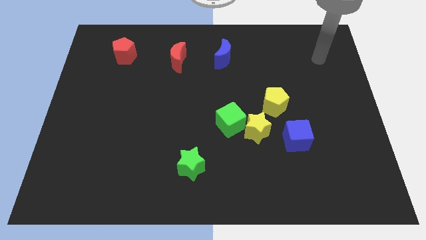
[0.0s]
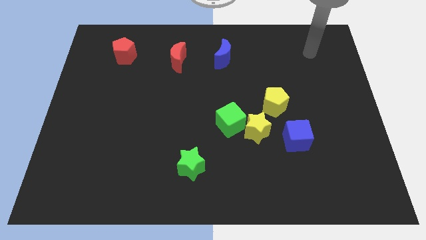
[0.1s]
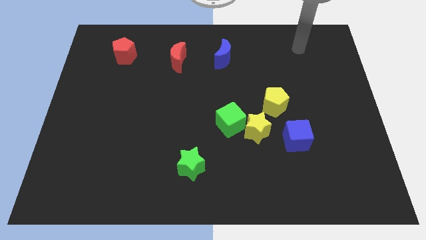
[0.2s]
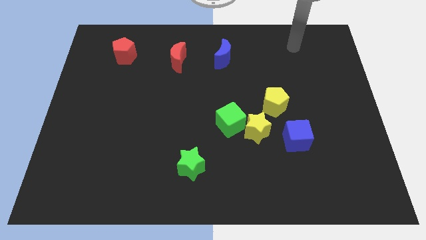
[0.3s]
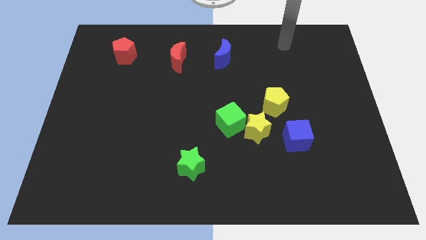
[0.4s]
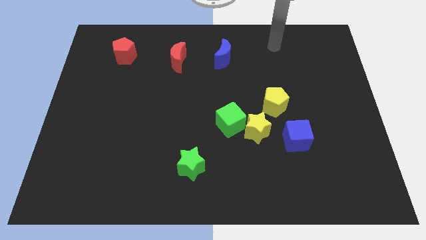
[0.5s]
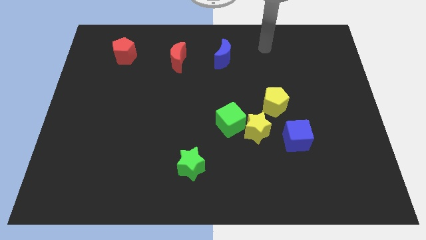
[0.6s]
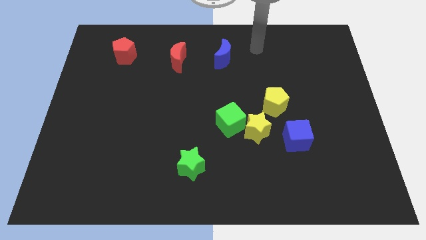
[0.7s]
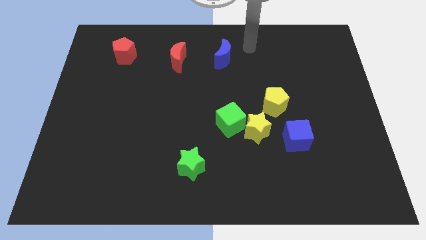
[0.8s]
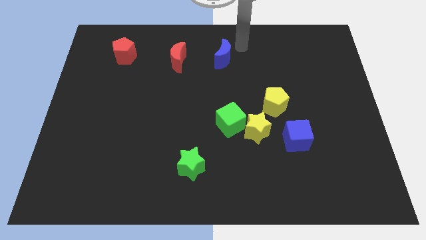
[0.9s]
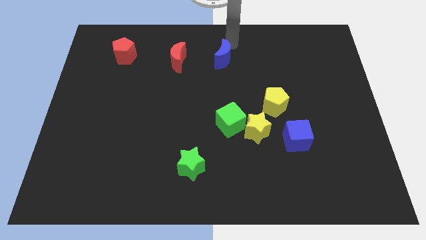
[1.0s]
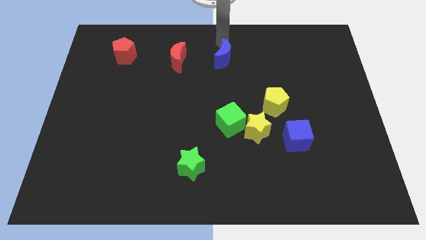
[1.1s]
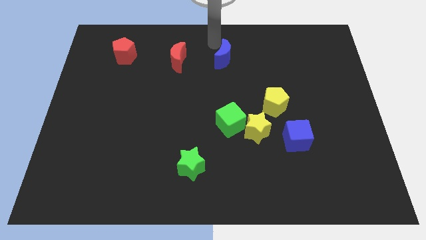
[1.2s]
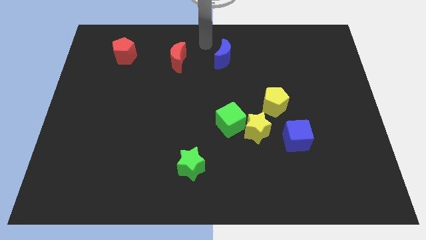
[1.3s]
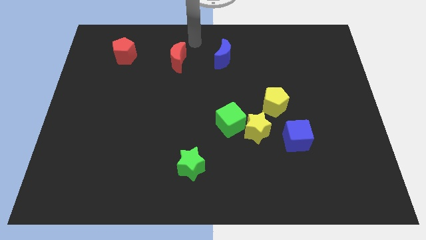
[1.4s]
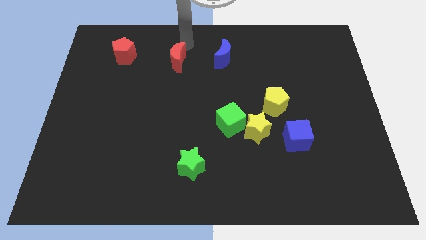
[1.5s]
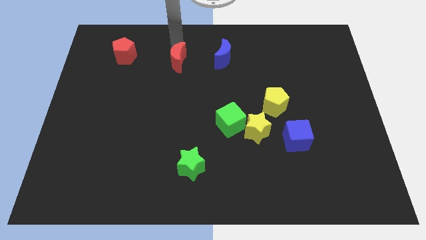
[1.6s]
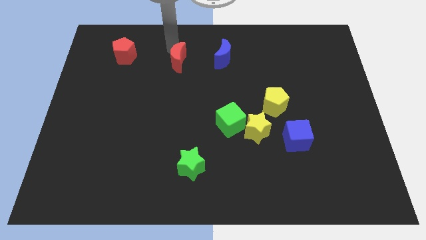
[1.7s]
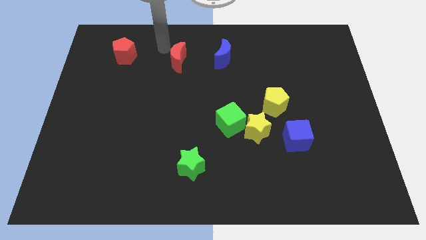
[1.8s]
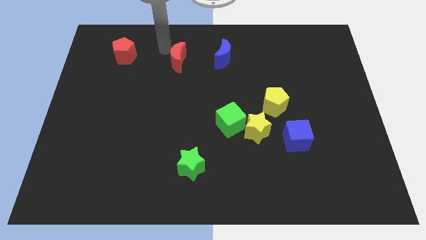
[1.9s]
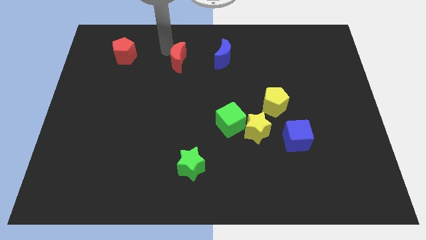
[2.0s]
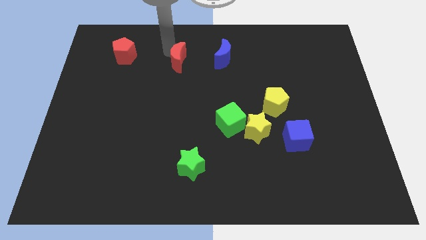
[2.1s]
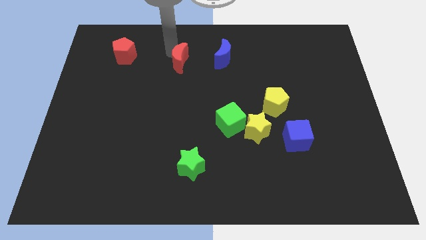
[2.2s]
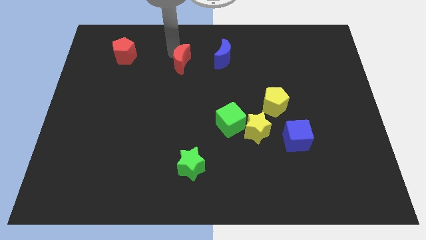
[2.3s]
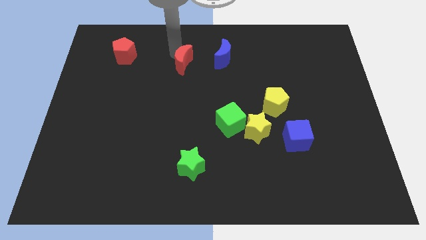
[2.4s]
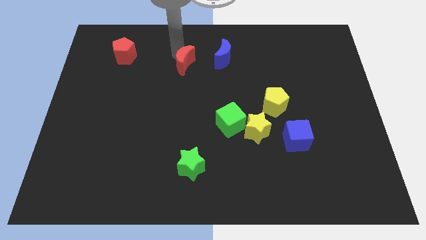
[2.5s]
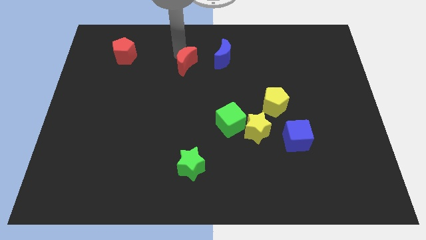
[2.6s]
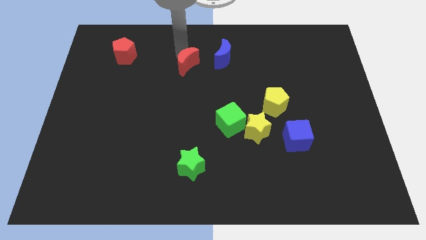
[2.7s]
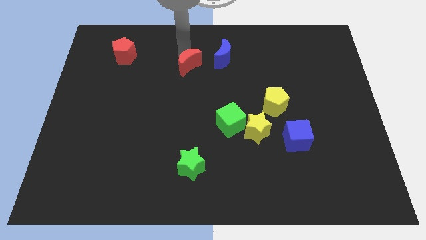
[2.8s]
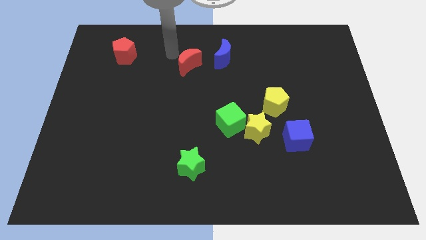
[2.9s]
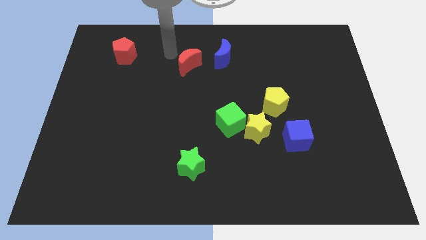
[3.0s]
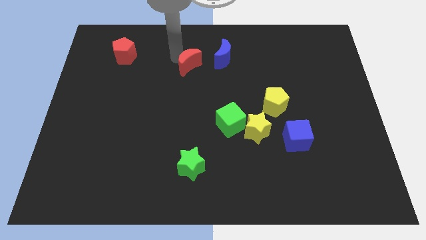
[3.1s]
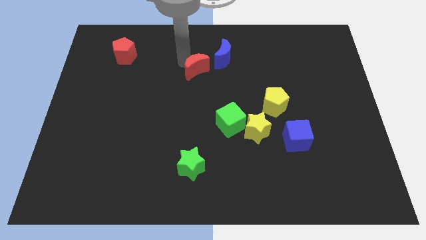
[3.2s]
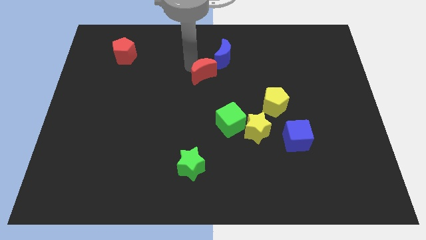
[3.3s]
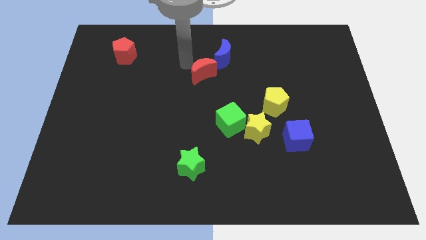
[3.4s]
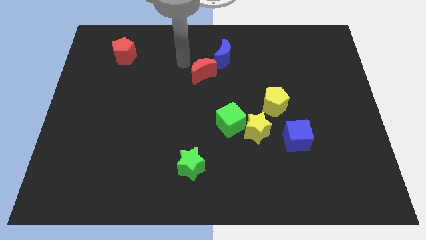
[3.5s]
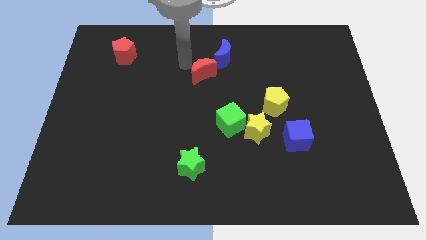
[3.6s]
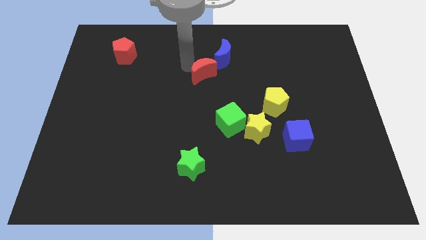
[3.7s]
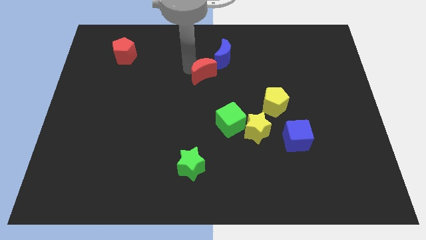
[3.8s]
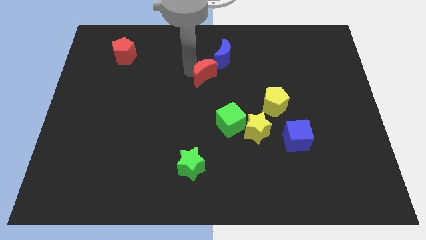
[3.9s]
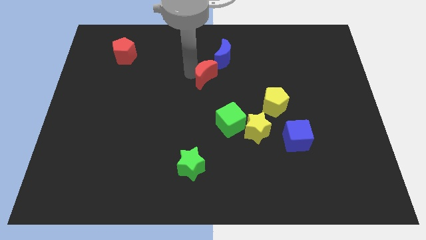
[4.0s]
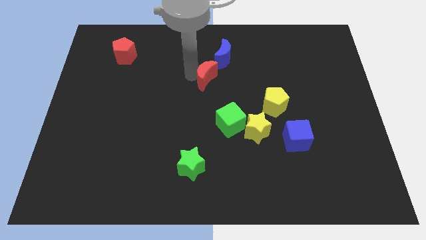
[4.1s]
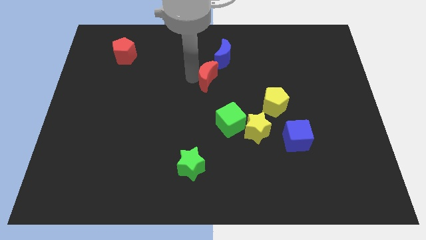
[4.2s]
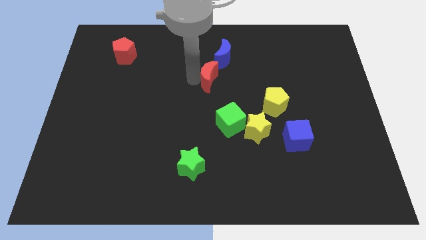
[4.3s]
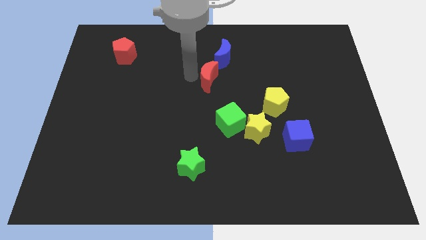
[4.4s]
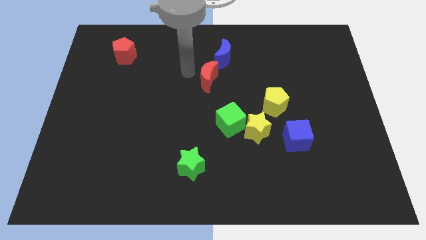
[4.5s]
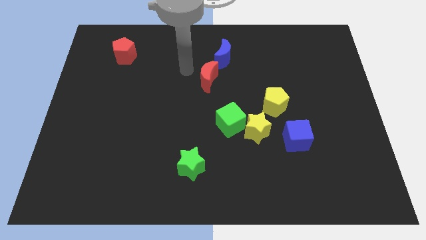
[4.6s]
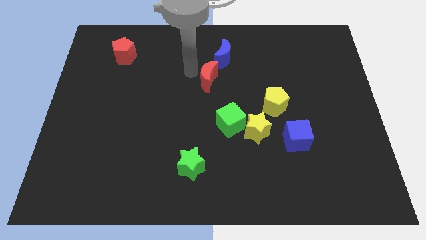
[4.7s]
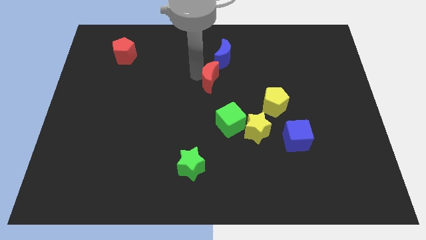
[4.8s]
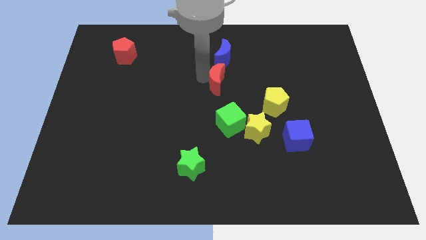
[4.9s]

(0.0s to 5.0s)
put the red moon to the top side of the green cube

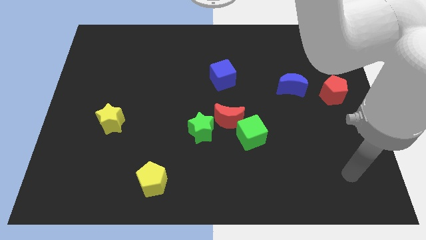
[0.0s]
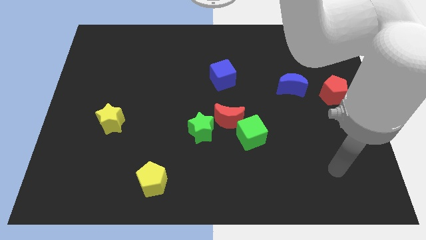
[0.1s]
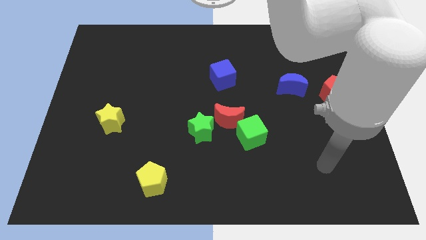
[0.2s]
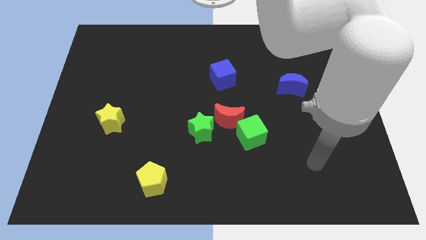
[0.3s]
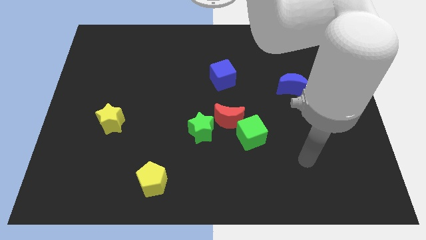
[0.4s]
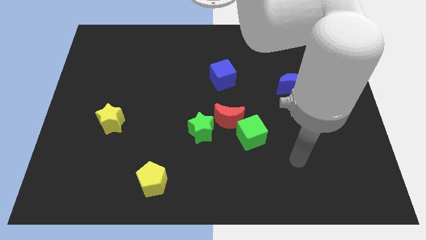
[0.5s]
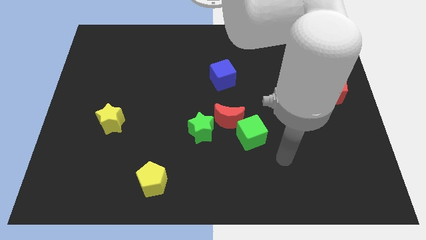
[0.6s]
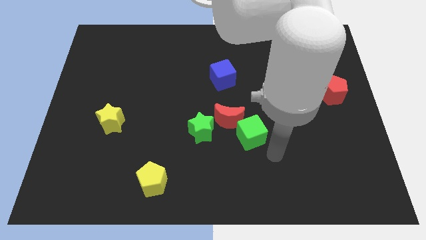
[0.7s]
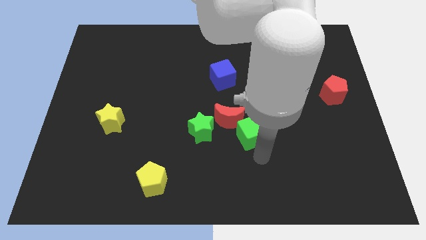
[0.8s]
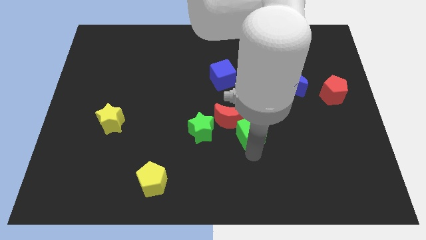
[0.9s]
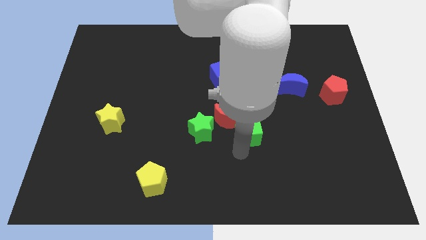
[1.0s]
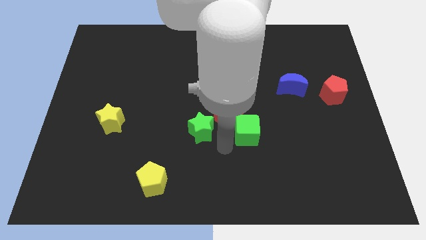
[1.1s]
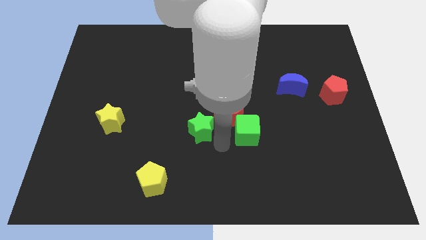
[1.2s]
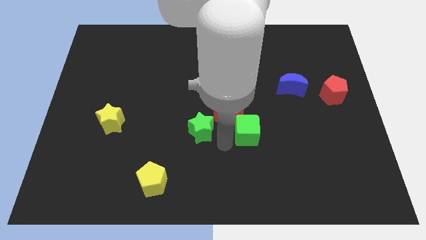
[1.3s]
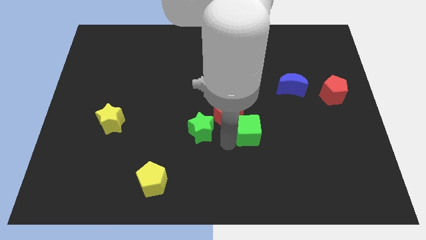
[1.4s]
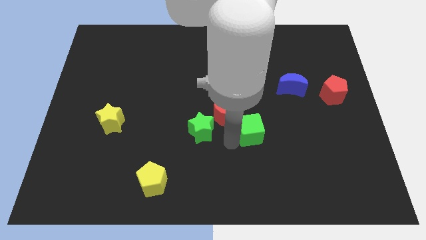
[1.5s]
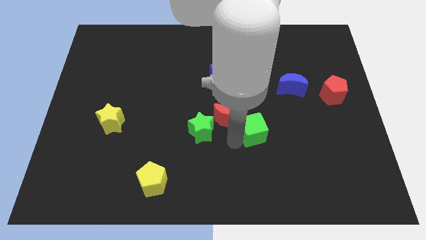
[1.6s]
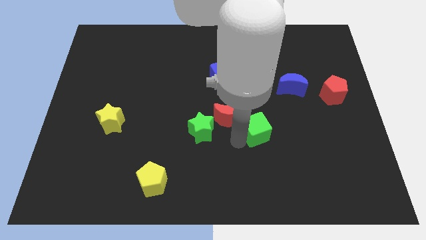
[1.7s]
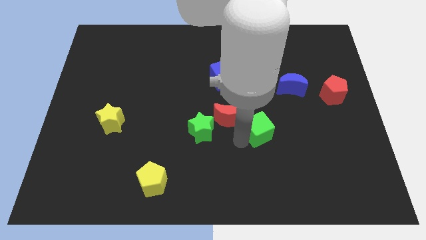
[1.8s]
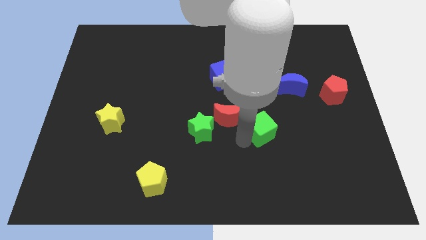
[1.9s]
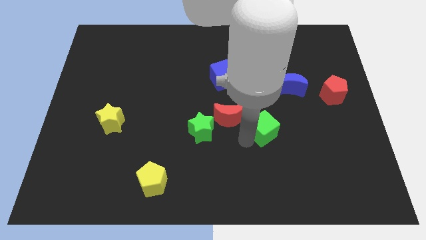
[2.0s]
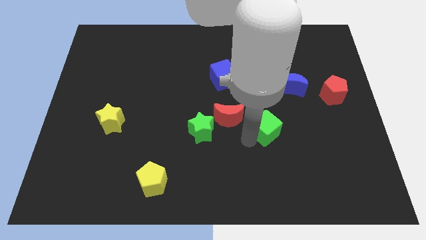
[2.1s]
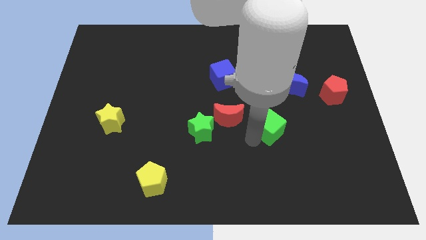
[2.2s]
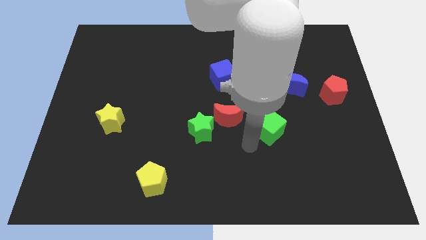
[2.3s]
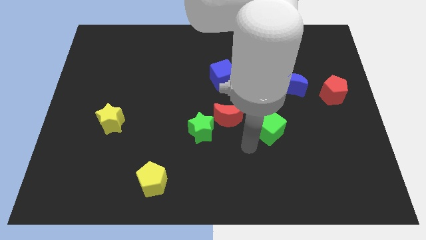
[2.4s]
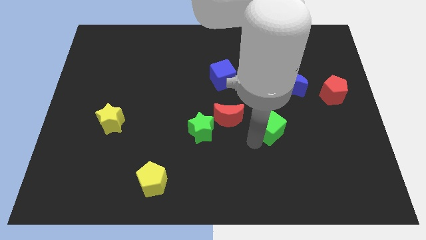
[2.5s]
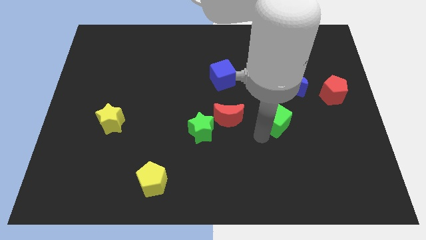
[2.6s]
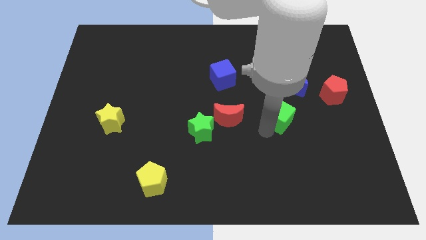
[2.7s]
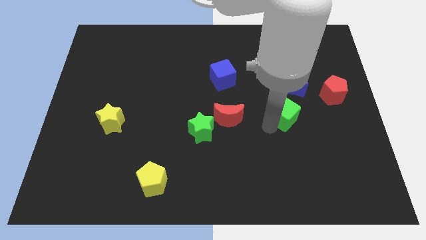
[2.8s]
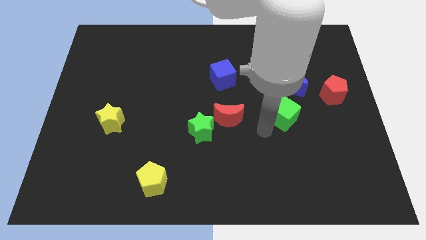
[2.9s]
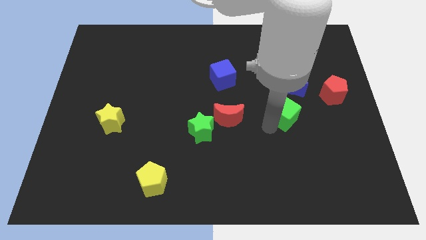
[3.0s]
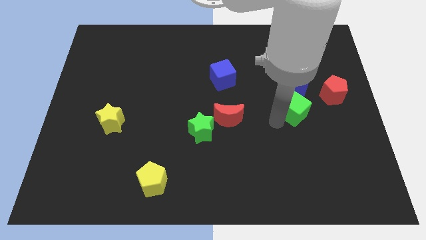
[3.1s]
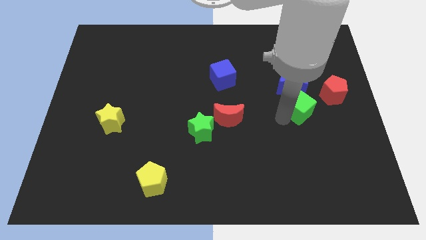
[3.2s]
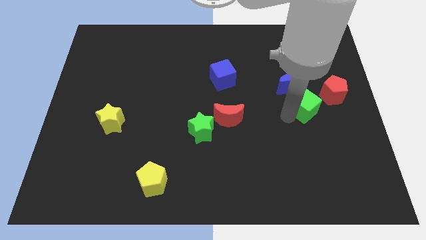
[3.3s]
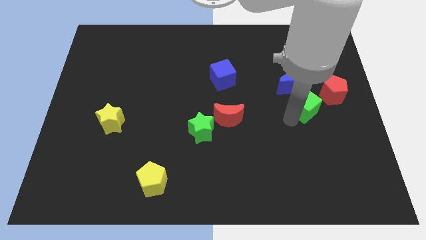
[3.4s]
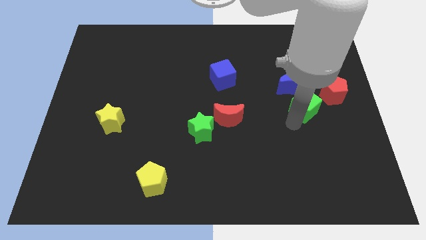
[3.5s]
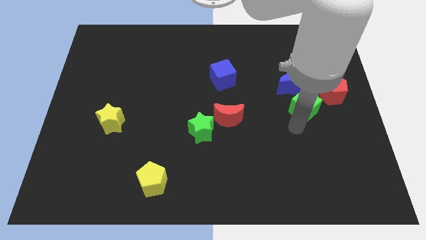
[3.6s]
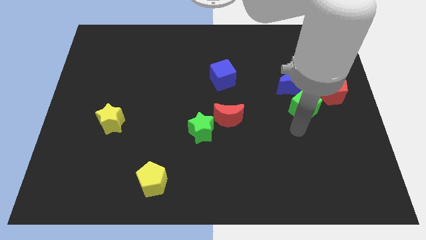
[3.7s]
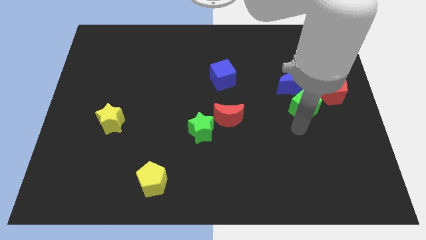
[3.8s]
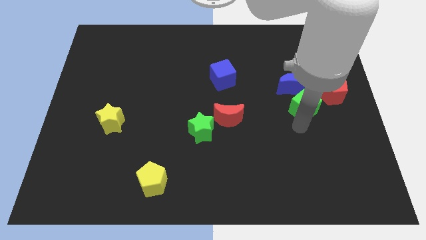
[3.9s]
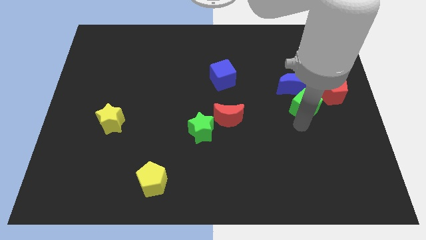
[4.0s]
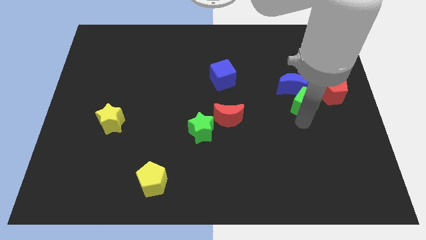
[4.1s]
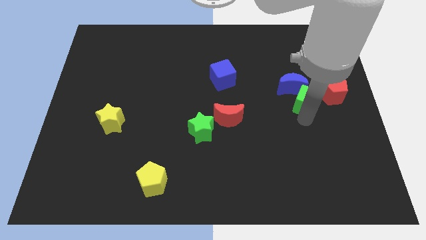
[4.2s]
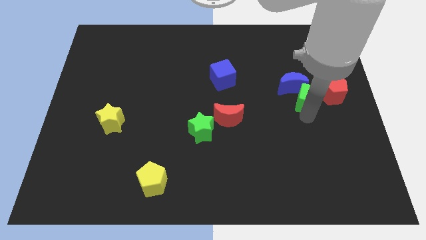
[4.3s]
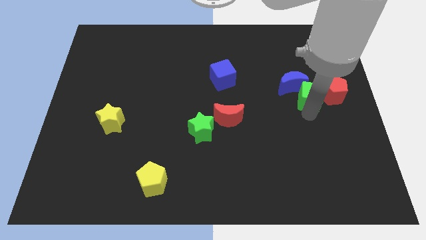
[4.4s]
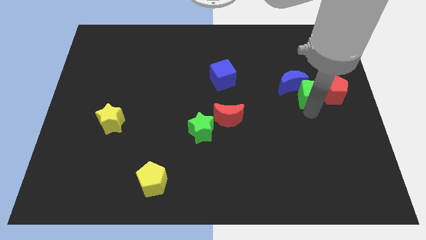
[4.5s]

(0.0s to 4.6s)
slide the green cube to the top left side of the red pentagon
